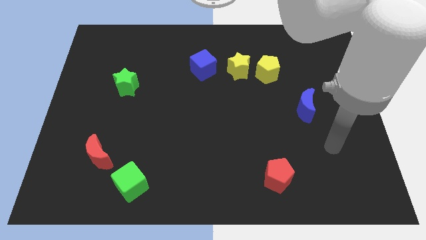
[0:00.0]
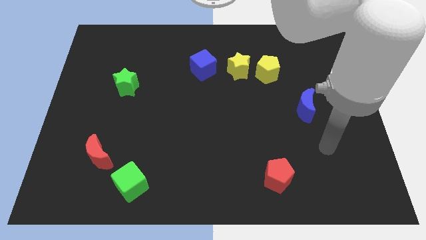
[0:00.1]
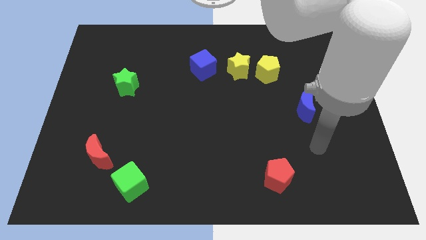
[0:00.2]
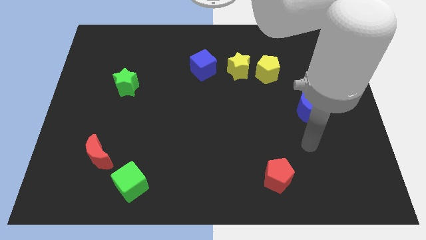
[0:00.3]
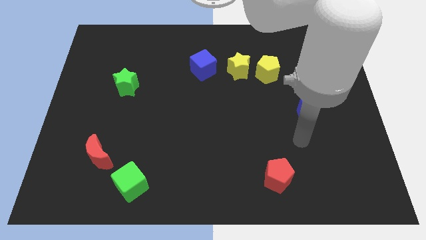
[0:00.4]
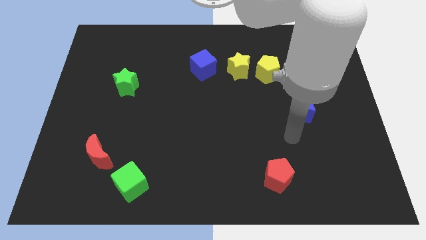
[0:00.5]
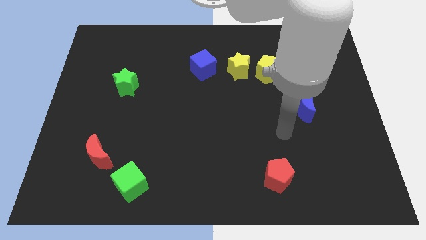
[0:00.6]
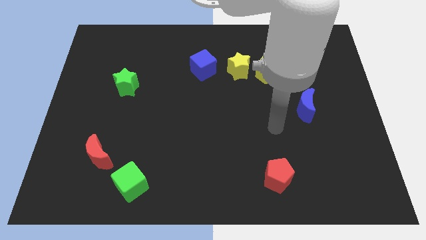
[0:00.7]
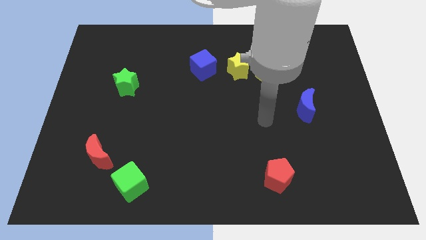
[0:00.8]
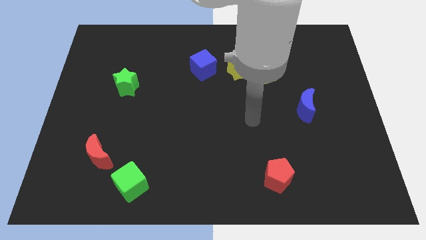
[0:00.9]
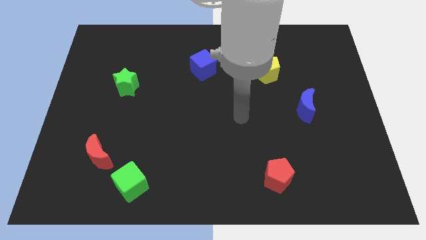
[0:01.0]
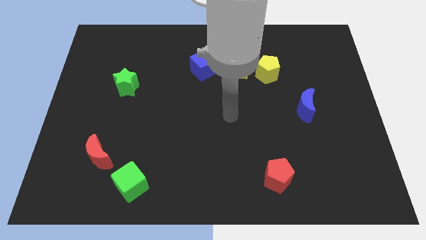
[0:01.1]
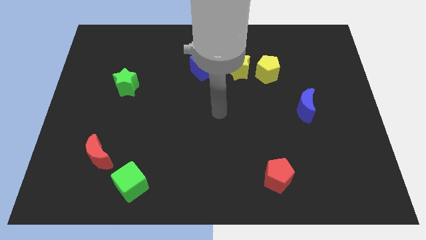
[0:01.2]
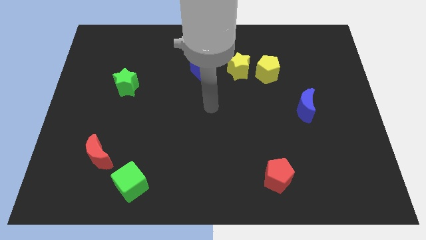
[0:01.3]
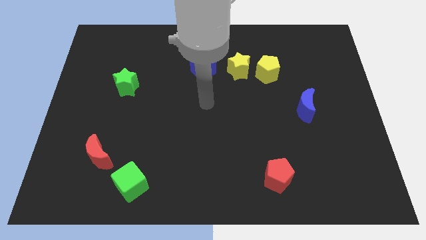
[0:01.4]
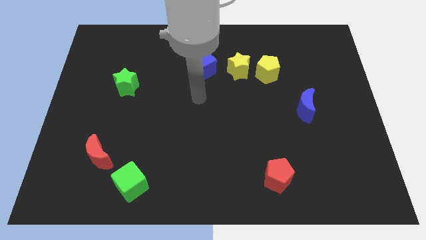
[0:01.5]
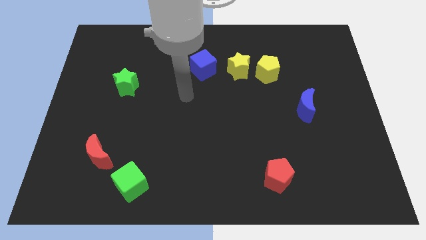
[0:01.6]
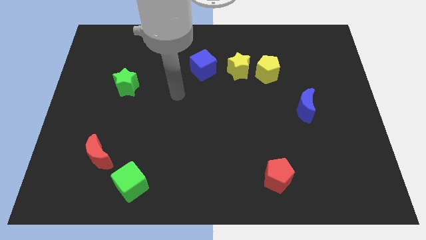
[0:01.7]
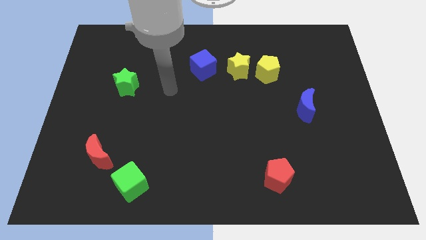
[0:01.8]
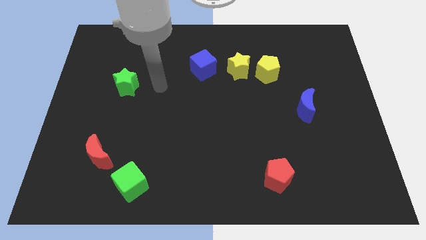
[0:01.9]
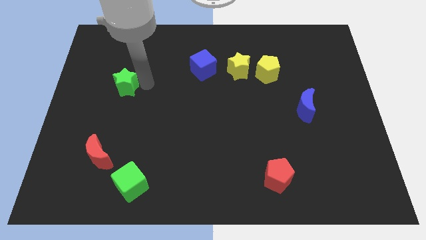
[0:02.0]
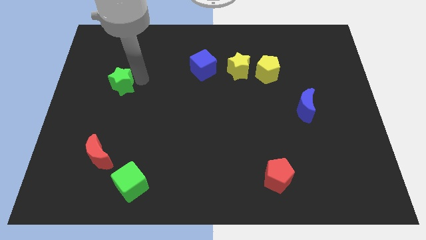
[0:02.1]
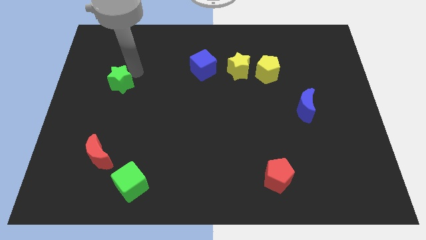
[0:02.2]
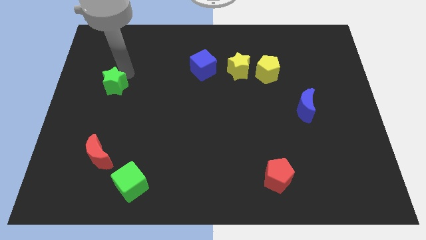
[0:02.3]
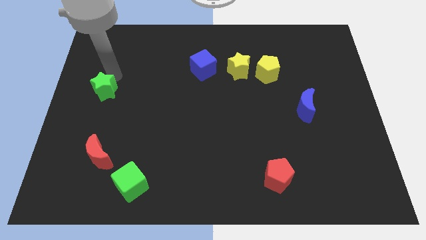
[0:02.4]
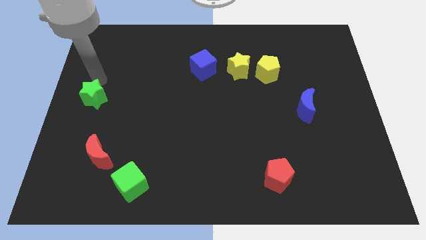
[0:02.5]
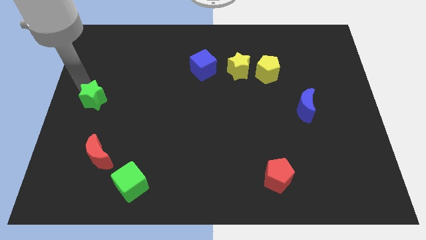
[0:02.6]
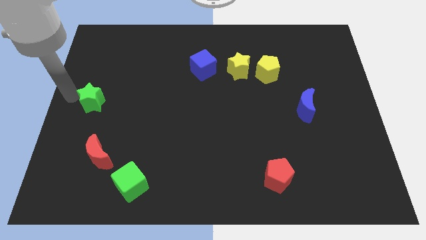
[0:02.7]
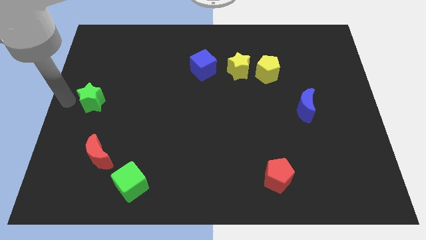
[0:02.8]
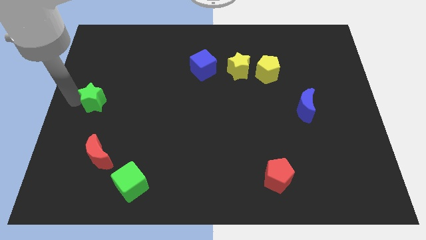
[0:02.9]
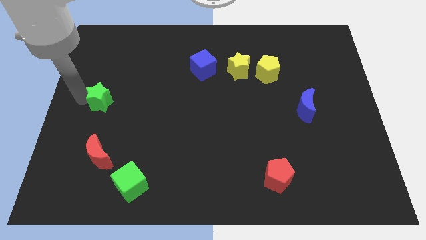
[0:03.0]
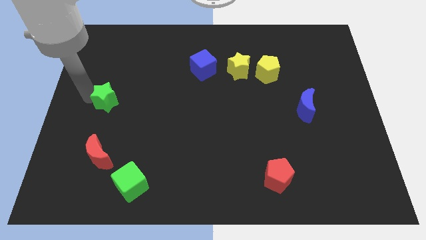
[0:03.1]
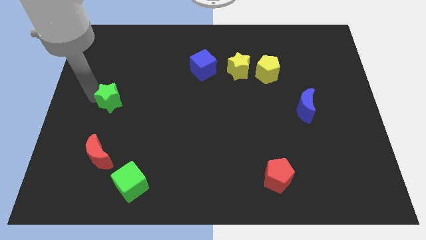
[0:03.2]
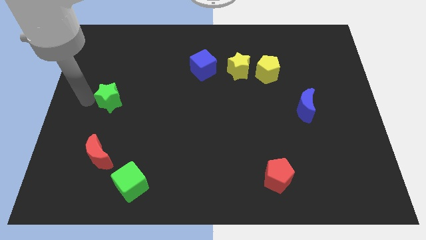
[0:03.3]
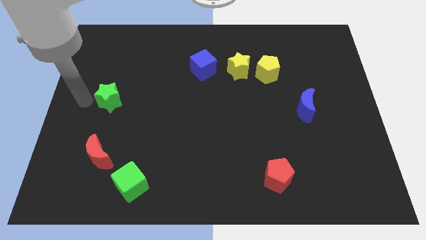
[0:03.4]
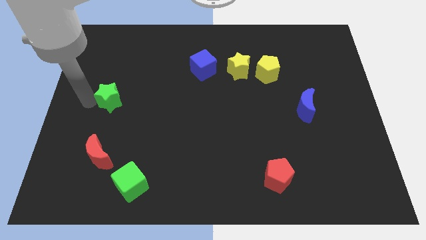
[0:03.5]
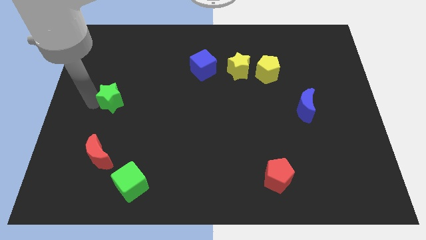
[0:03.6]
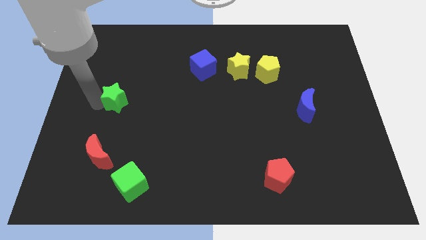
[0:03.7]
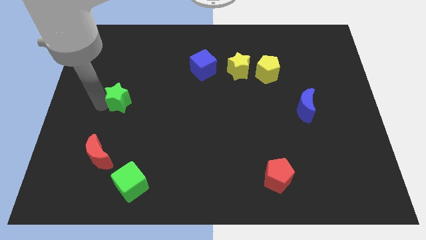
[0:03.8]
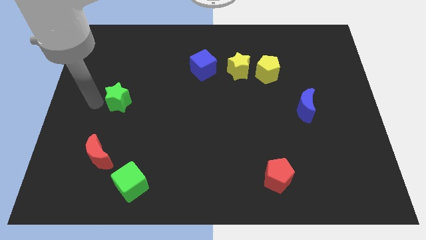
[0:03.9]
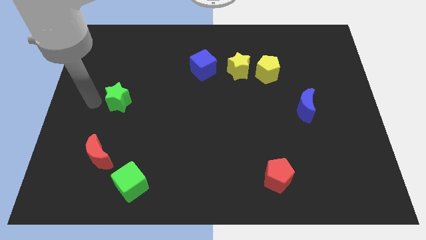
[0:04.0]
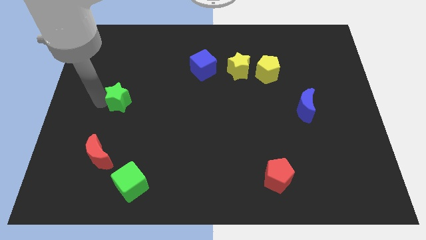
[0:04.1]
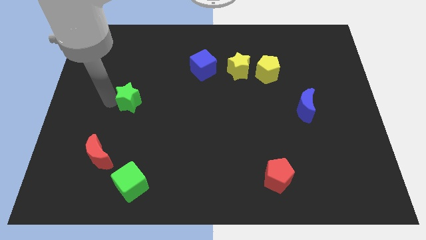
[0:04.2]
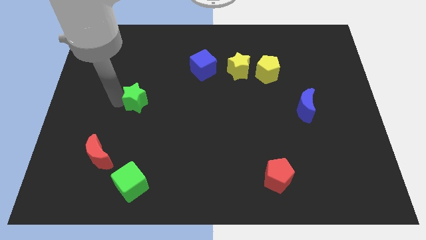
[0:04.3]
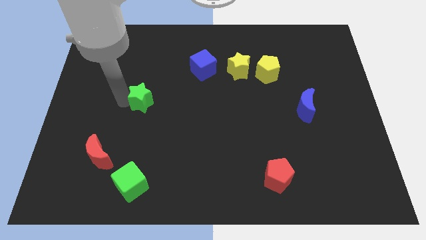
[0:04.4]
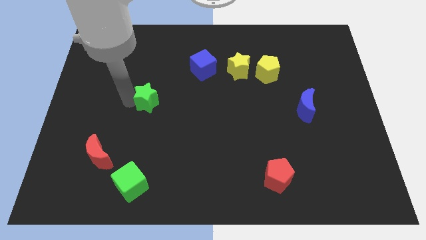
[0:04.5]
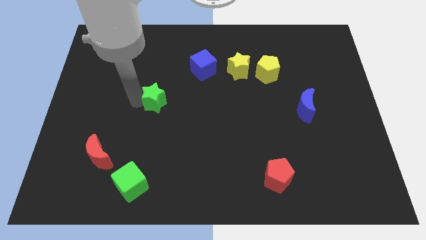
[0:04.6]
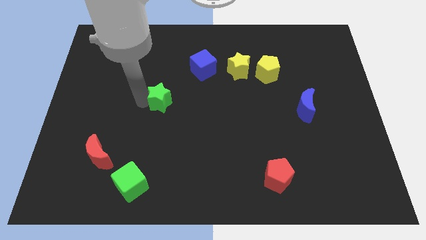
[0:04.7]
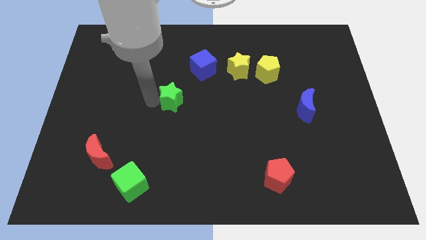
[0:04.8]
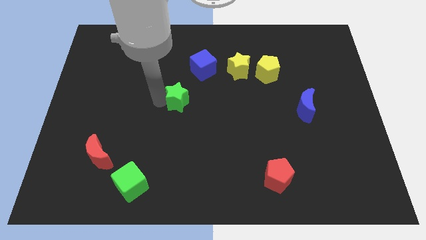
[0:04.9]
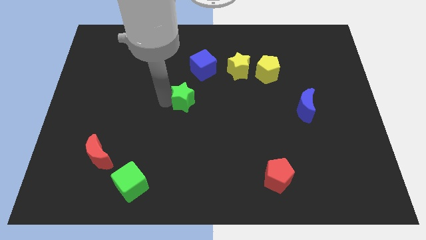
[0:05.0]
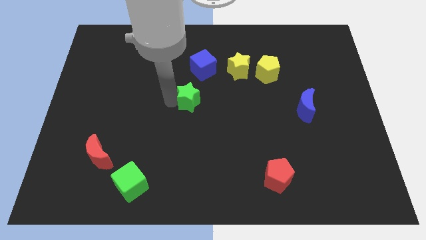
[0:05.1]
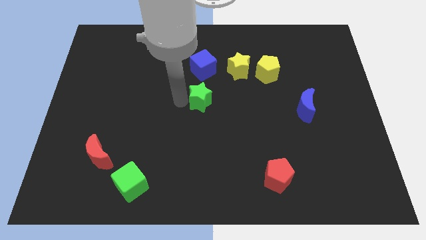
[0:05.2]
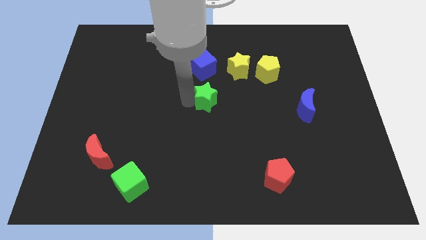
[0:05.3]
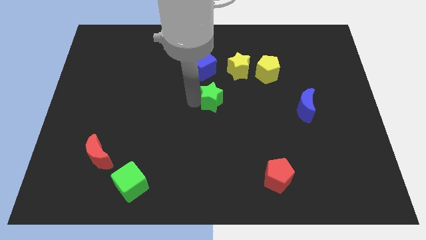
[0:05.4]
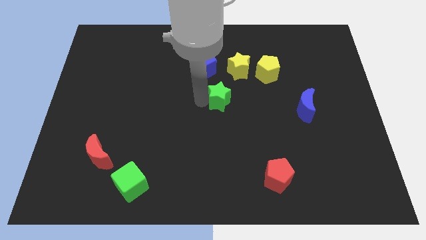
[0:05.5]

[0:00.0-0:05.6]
move the green star to the bottom of the yellow star

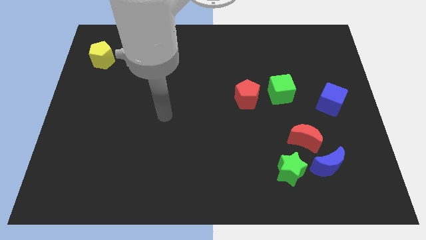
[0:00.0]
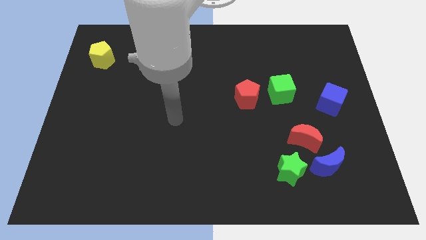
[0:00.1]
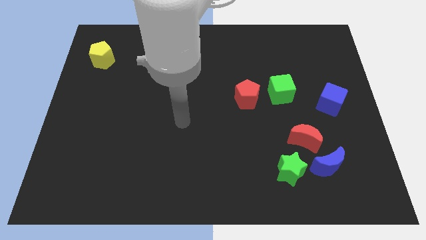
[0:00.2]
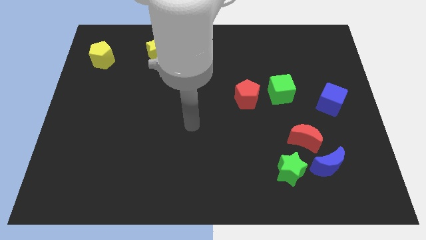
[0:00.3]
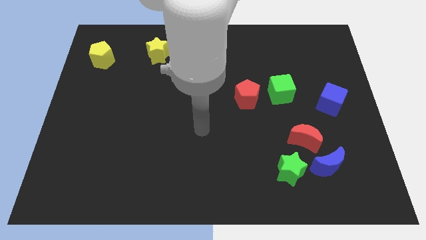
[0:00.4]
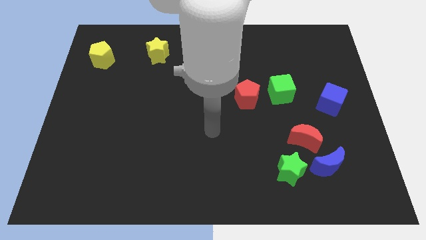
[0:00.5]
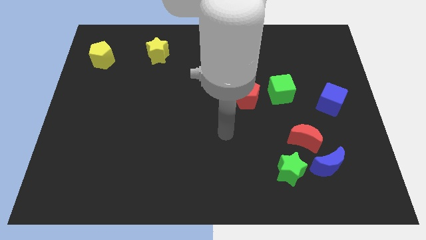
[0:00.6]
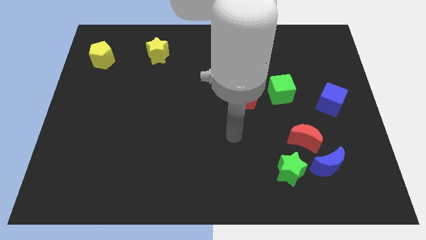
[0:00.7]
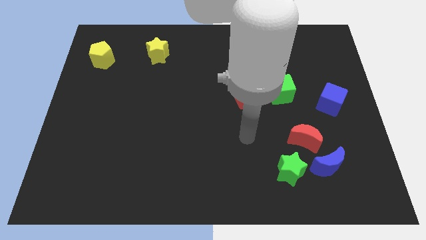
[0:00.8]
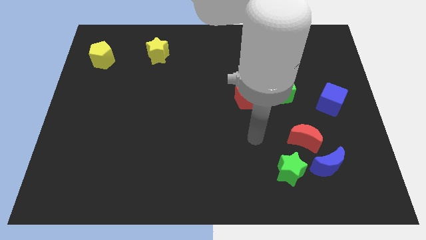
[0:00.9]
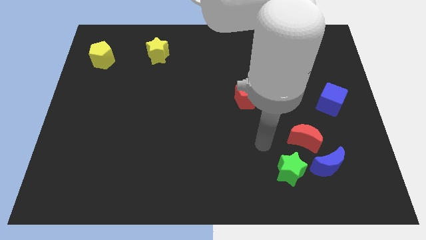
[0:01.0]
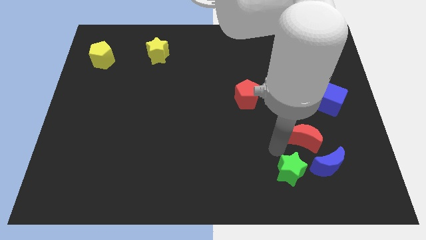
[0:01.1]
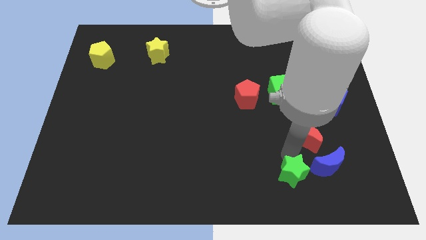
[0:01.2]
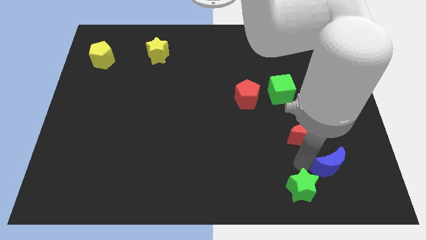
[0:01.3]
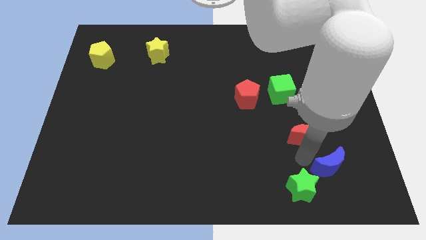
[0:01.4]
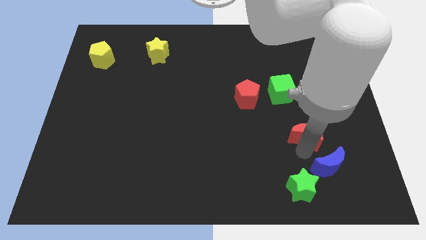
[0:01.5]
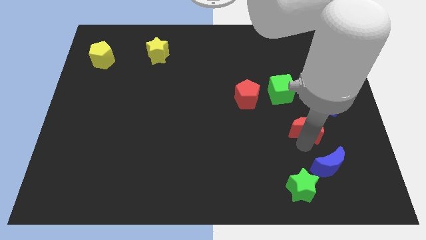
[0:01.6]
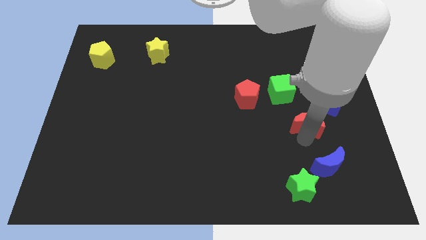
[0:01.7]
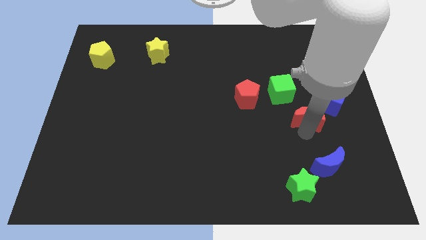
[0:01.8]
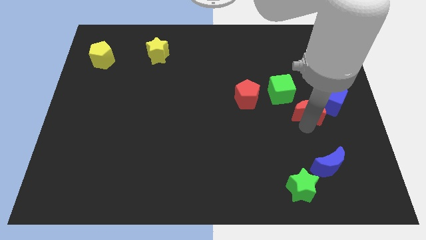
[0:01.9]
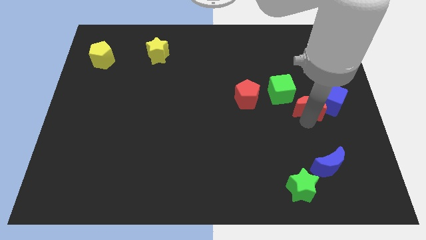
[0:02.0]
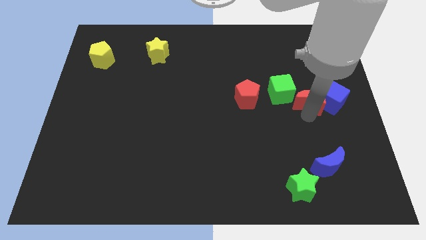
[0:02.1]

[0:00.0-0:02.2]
put the red moon to the top left side of the blue cube

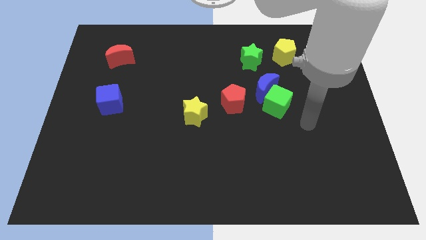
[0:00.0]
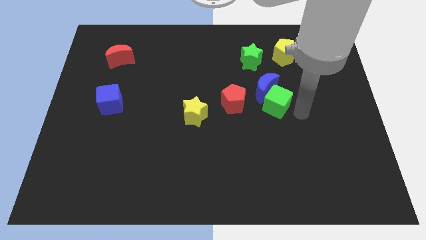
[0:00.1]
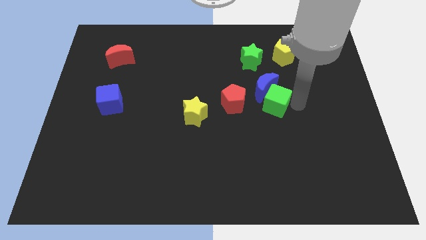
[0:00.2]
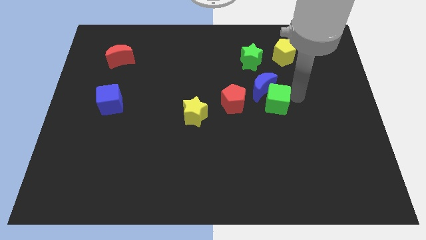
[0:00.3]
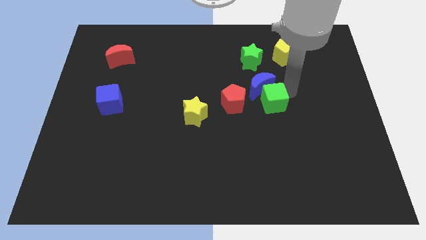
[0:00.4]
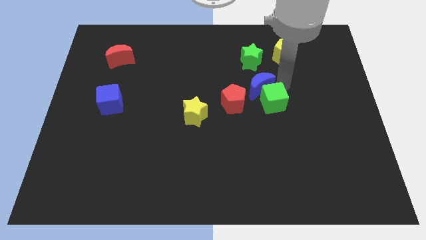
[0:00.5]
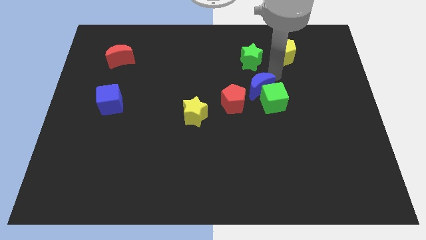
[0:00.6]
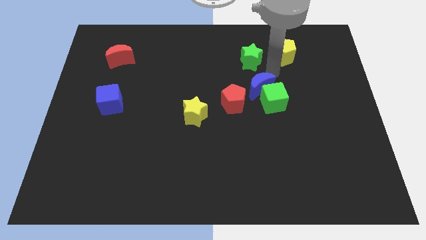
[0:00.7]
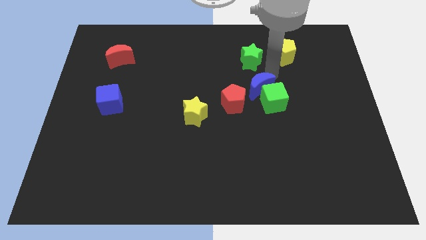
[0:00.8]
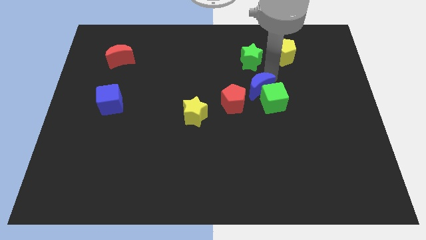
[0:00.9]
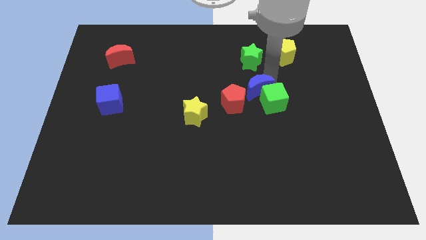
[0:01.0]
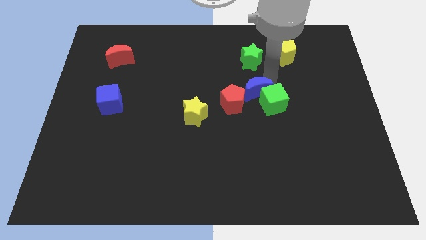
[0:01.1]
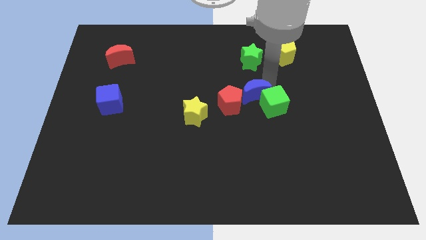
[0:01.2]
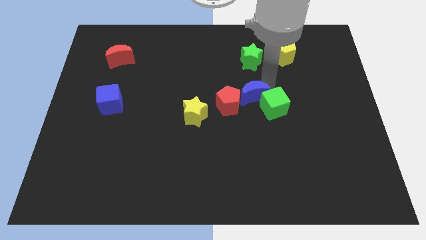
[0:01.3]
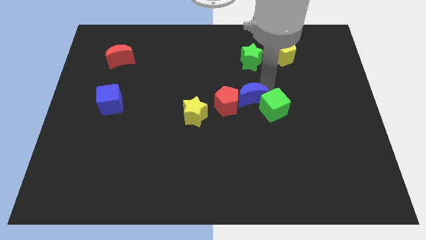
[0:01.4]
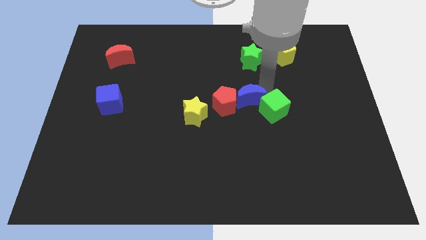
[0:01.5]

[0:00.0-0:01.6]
slide the blue moon to the right of the yellow star
